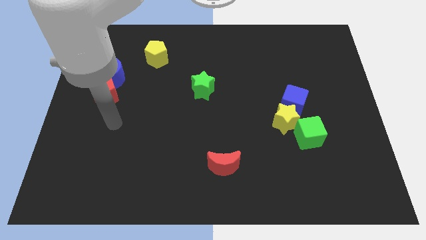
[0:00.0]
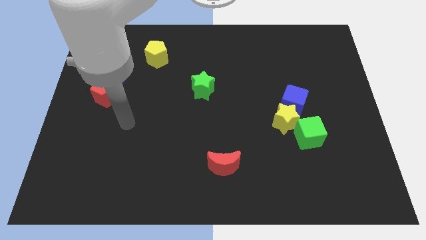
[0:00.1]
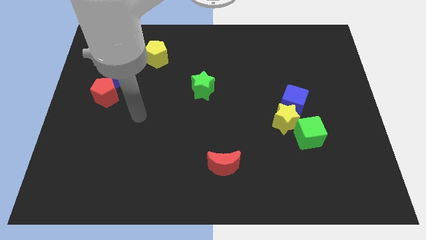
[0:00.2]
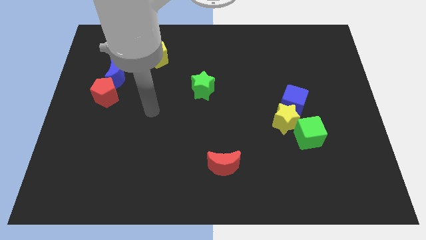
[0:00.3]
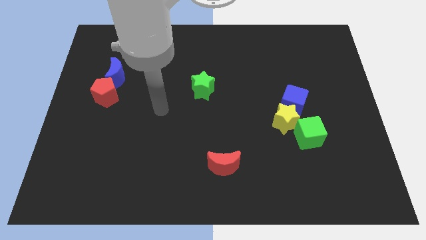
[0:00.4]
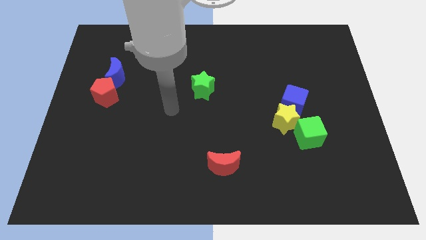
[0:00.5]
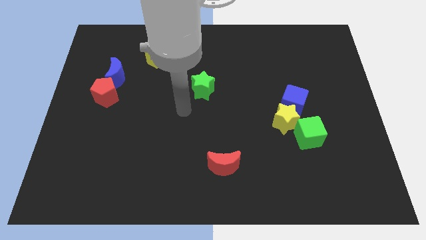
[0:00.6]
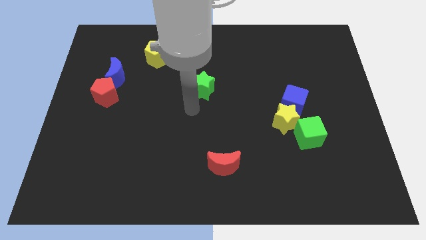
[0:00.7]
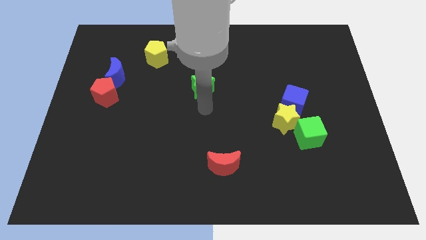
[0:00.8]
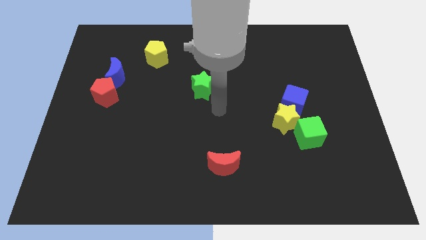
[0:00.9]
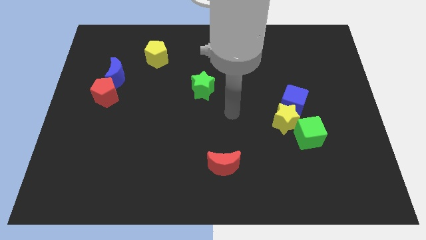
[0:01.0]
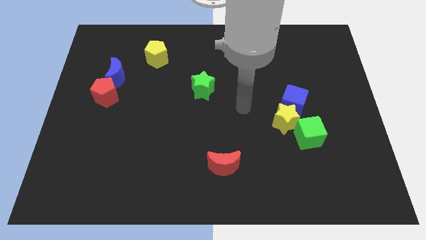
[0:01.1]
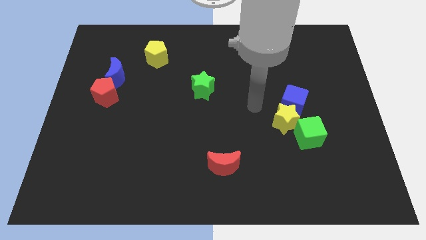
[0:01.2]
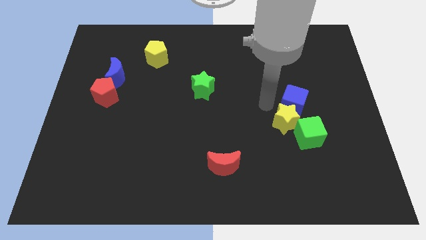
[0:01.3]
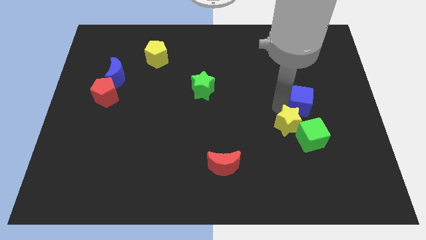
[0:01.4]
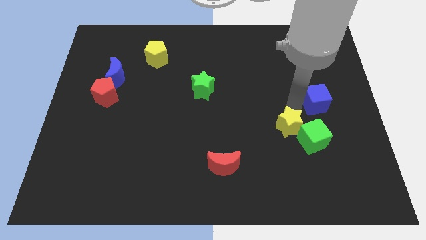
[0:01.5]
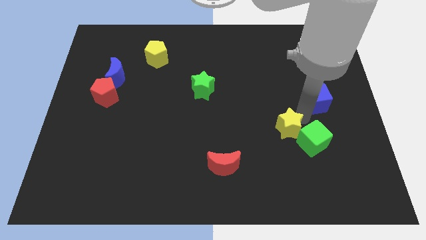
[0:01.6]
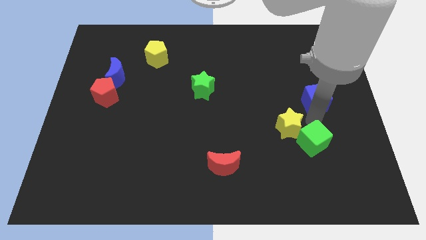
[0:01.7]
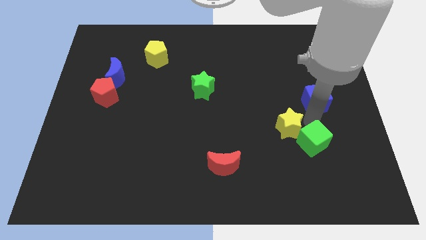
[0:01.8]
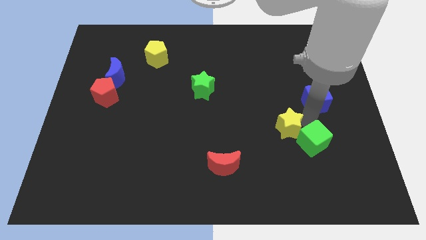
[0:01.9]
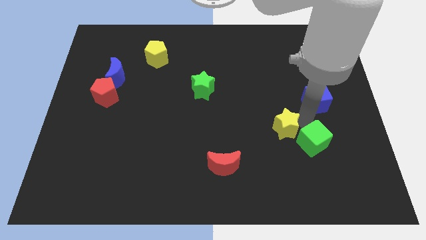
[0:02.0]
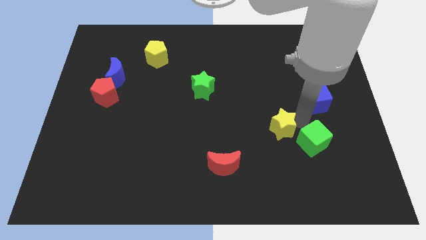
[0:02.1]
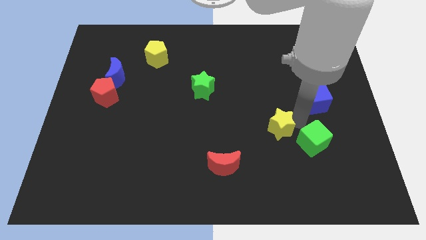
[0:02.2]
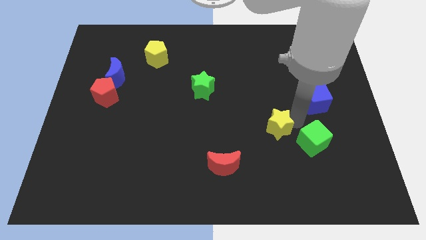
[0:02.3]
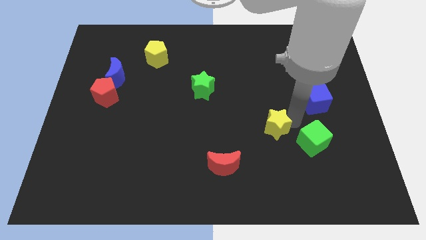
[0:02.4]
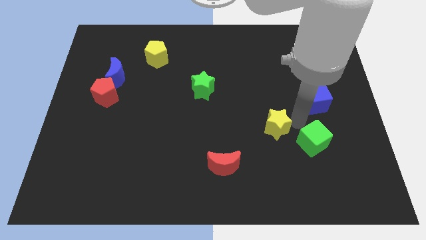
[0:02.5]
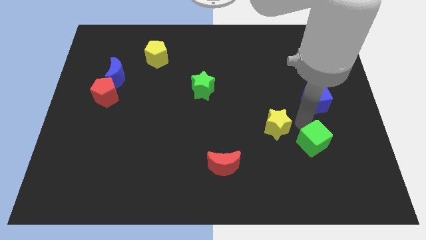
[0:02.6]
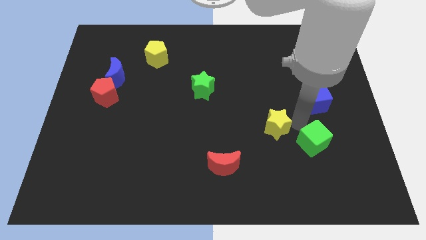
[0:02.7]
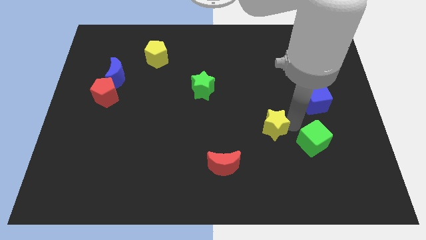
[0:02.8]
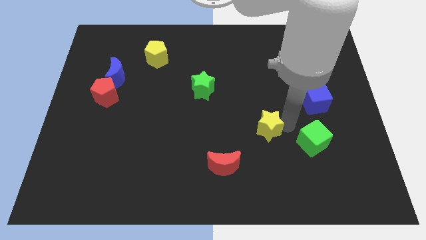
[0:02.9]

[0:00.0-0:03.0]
pull the yellow star apart from the blue cube and green cube

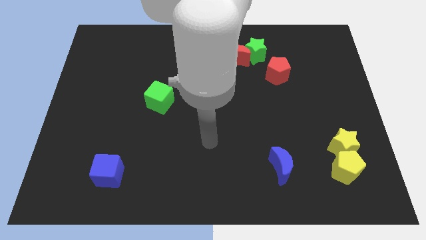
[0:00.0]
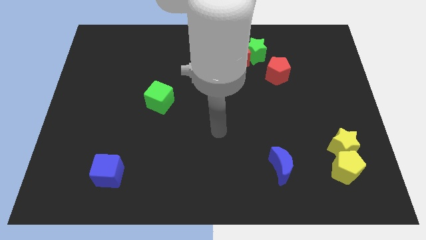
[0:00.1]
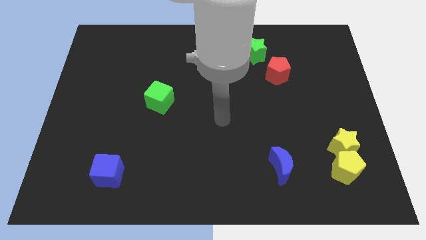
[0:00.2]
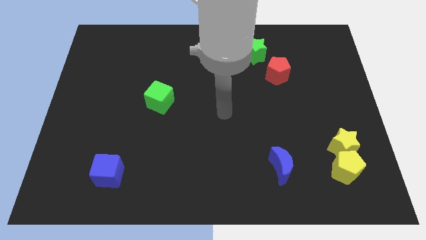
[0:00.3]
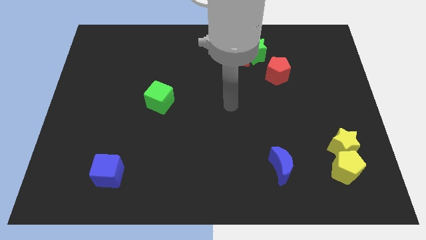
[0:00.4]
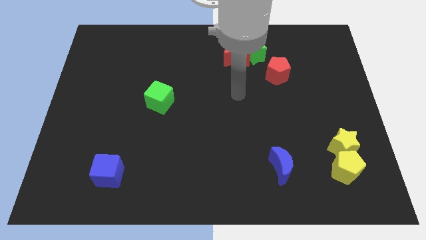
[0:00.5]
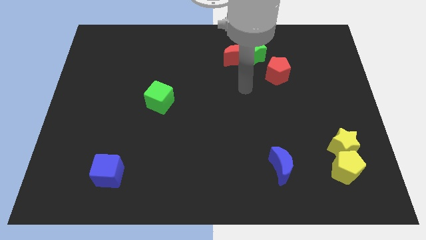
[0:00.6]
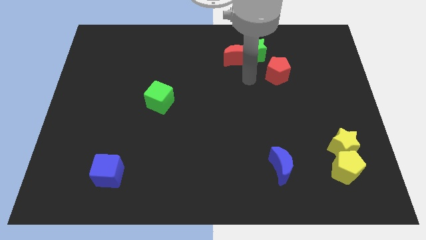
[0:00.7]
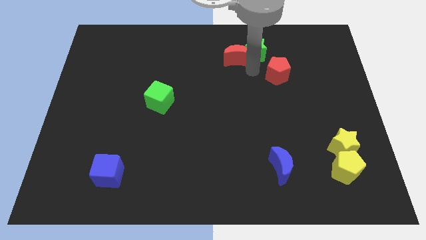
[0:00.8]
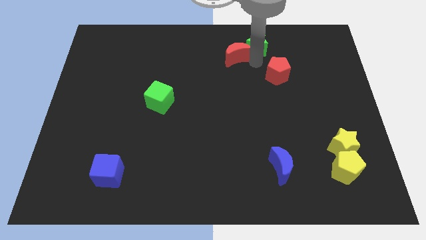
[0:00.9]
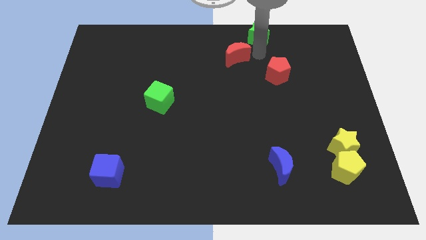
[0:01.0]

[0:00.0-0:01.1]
pull the red moon apart from the green star

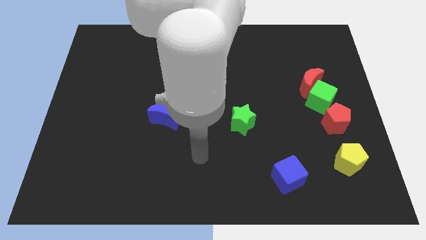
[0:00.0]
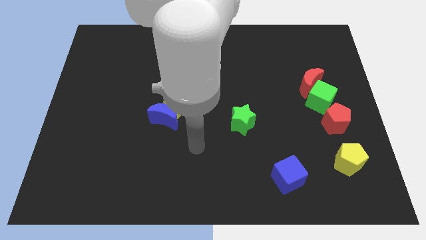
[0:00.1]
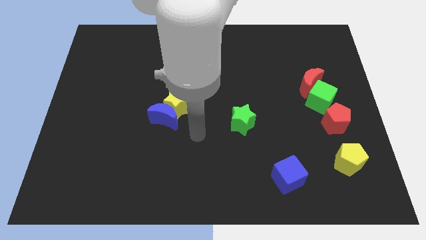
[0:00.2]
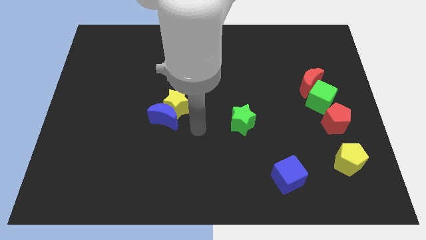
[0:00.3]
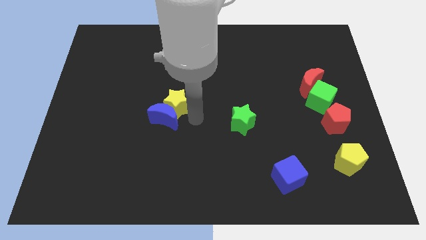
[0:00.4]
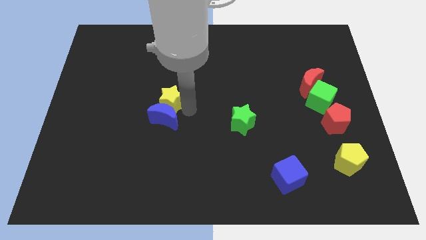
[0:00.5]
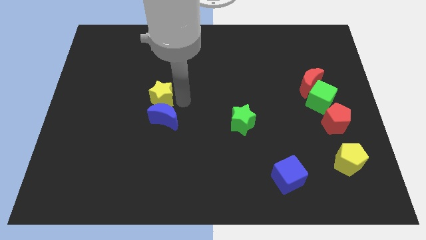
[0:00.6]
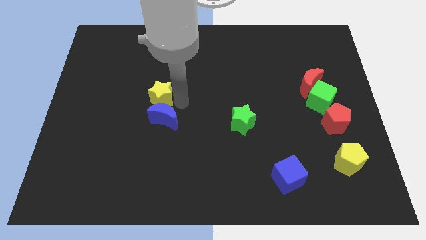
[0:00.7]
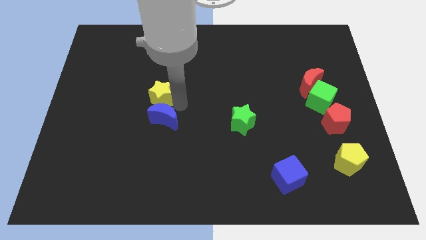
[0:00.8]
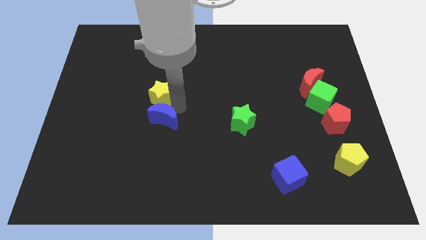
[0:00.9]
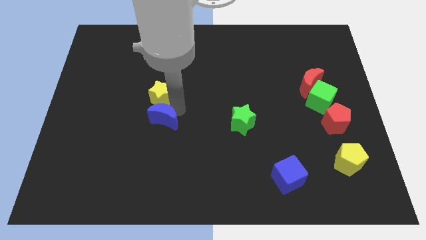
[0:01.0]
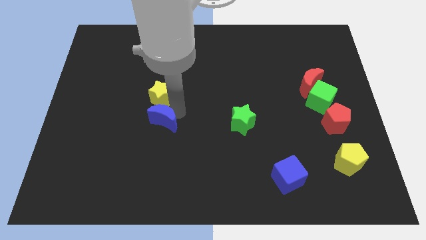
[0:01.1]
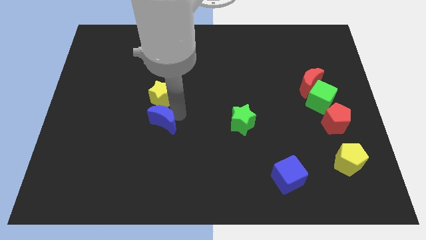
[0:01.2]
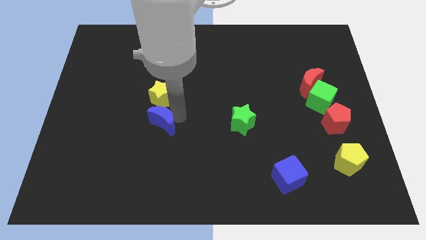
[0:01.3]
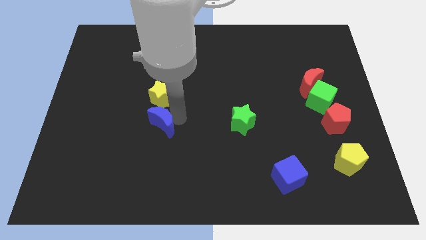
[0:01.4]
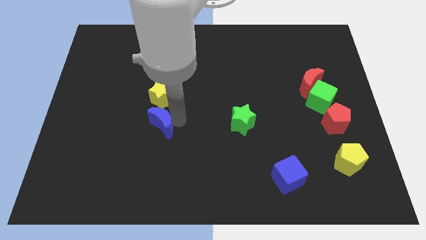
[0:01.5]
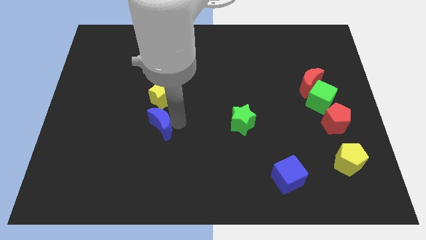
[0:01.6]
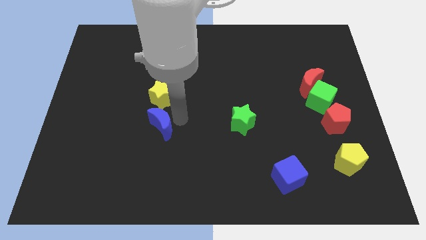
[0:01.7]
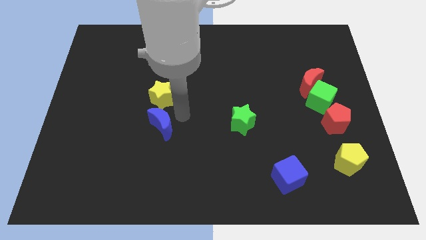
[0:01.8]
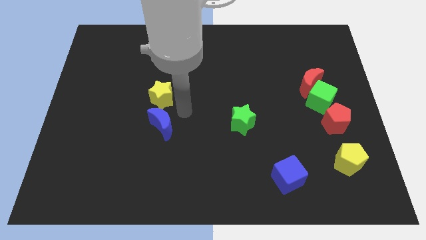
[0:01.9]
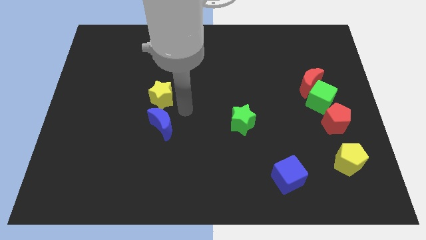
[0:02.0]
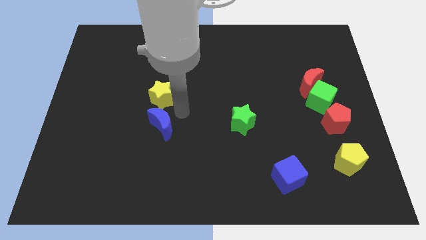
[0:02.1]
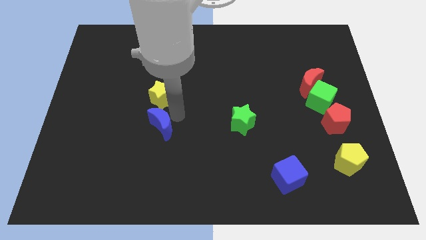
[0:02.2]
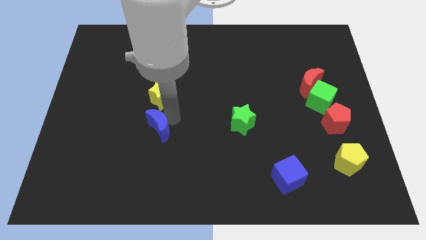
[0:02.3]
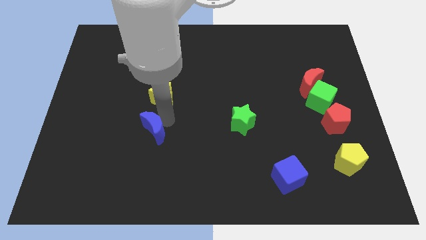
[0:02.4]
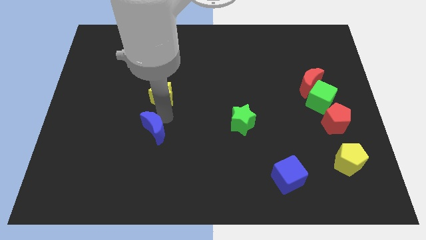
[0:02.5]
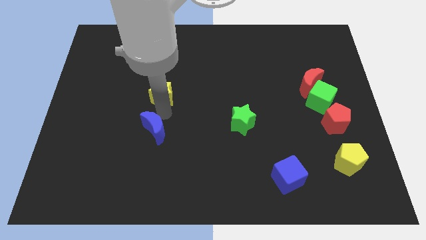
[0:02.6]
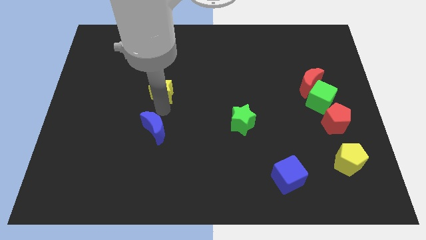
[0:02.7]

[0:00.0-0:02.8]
separate the blue moon from the yellow star

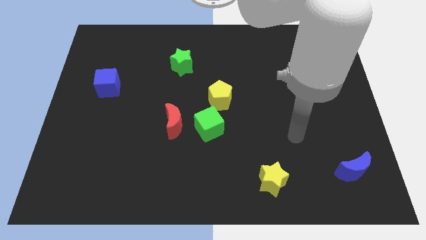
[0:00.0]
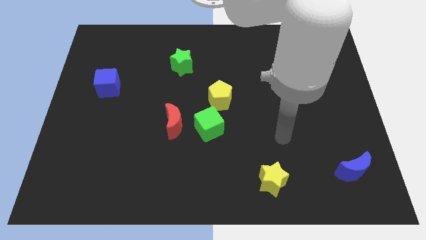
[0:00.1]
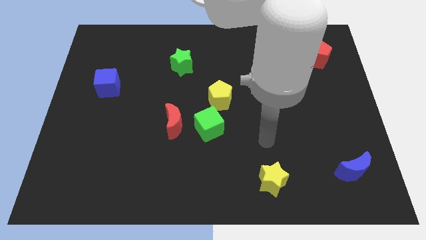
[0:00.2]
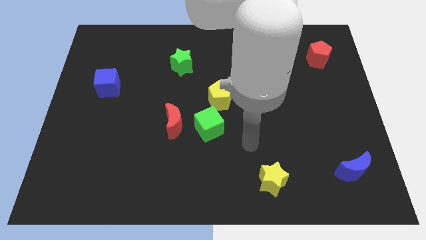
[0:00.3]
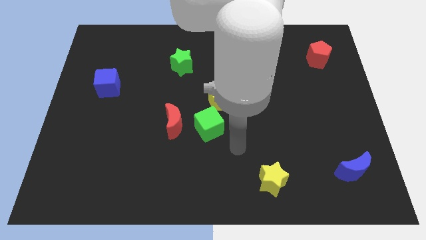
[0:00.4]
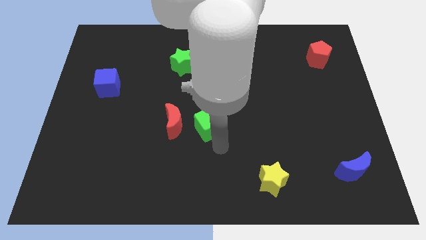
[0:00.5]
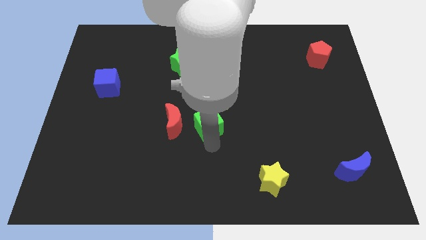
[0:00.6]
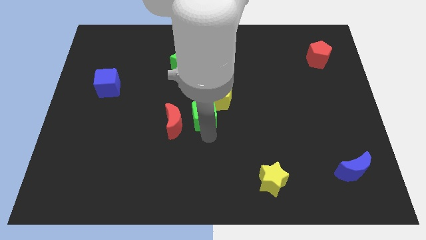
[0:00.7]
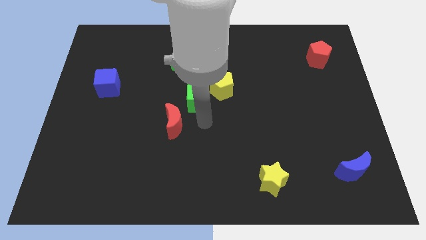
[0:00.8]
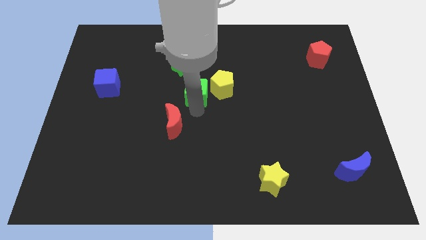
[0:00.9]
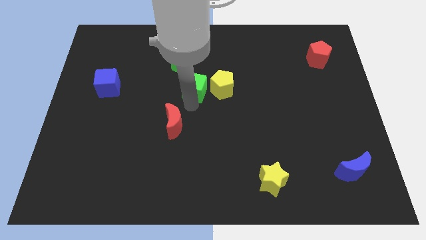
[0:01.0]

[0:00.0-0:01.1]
move the red moon away from the green cube

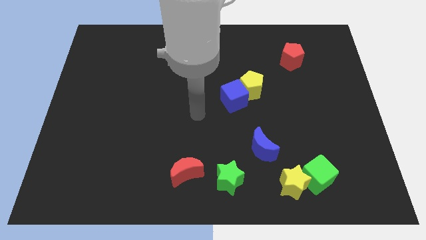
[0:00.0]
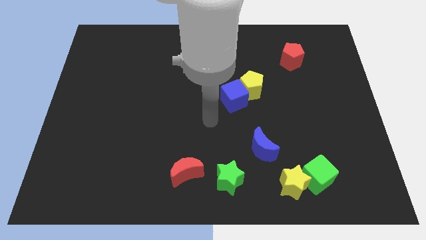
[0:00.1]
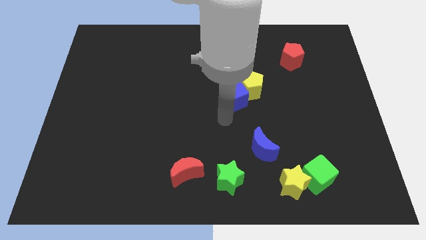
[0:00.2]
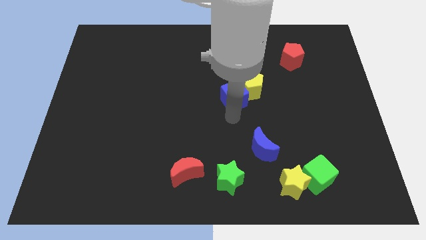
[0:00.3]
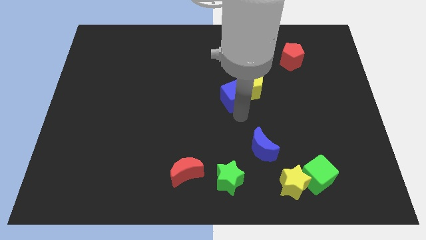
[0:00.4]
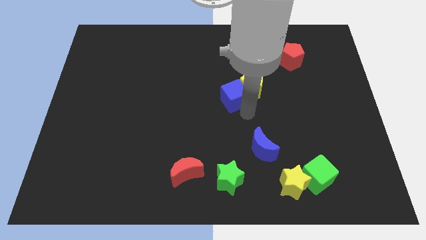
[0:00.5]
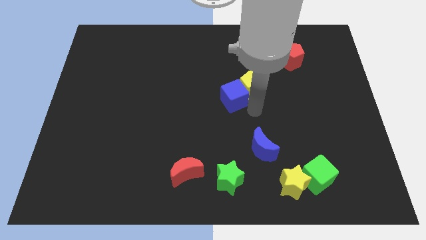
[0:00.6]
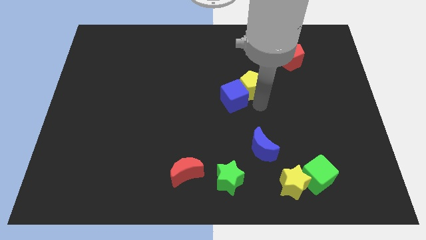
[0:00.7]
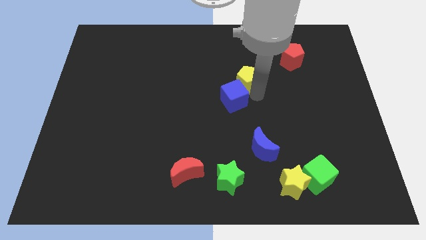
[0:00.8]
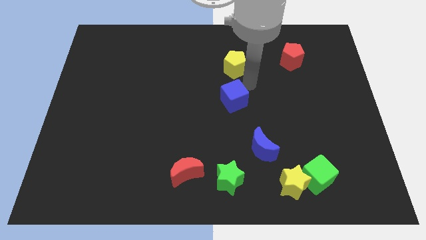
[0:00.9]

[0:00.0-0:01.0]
move the blue cube away from the yellow pentagon

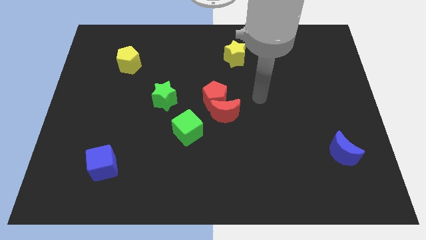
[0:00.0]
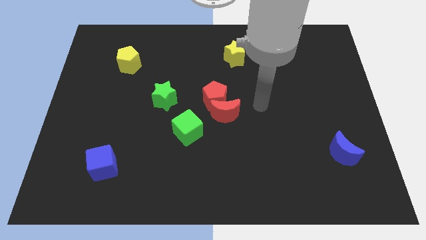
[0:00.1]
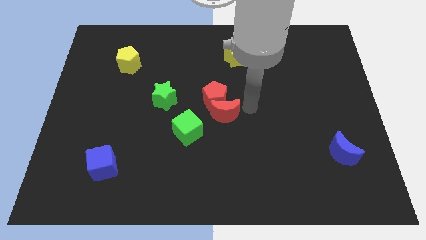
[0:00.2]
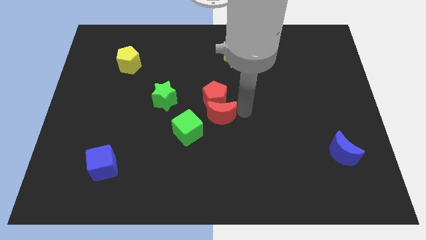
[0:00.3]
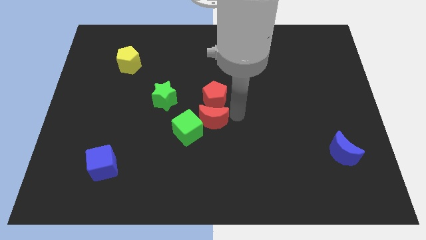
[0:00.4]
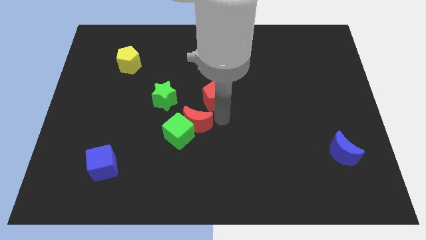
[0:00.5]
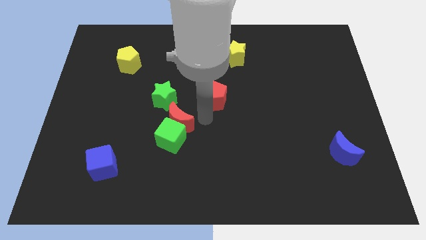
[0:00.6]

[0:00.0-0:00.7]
move the red pentagon away from the red moon
